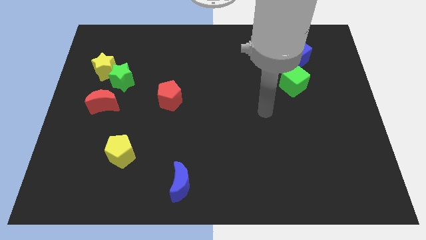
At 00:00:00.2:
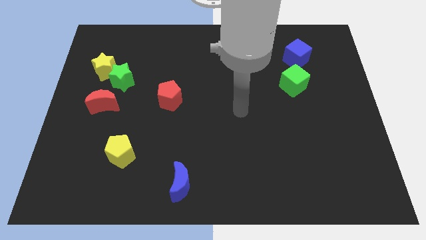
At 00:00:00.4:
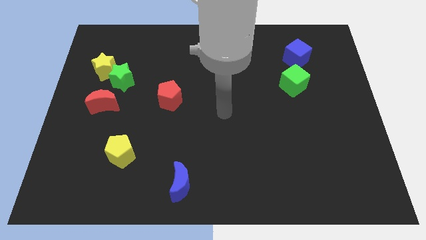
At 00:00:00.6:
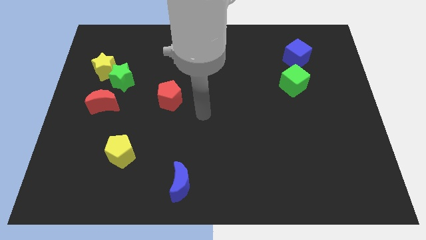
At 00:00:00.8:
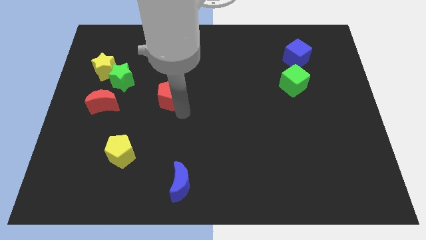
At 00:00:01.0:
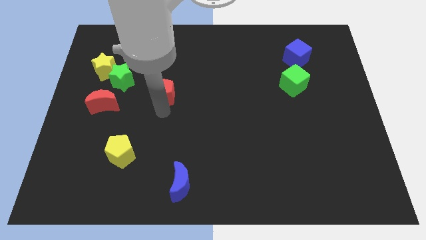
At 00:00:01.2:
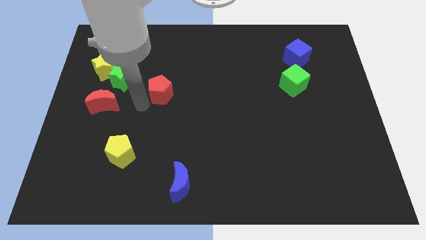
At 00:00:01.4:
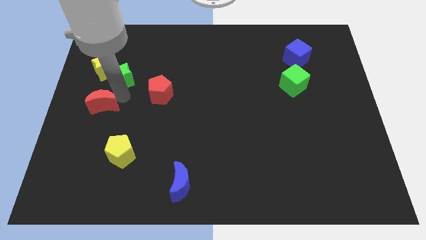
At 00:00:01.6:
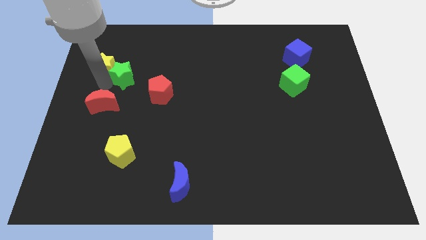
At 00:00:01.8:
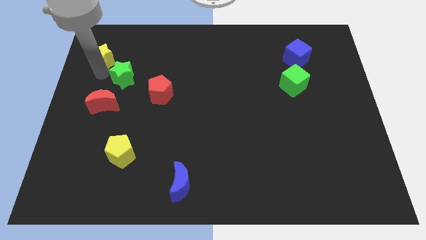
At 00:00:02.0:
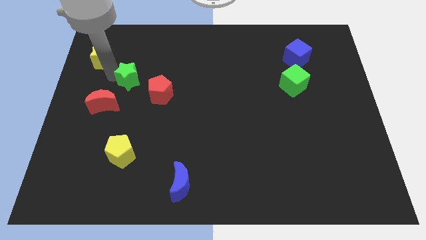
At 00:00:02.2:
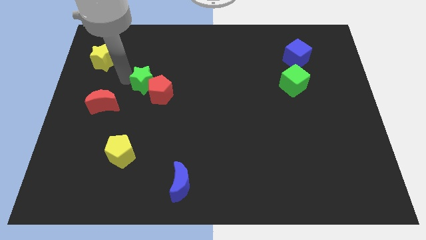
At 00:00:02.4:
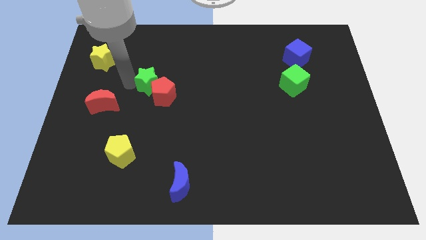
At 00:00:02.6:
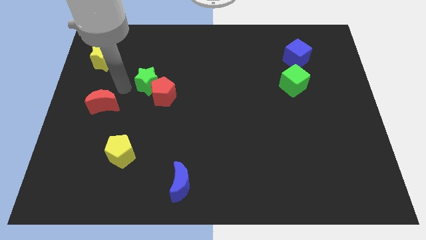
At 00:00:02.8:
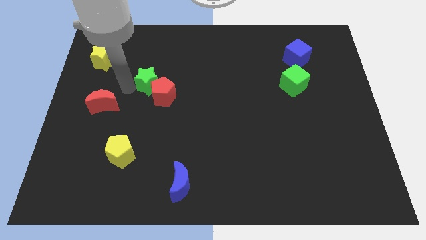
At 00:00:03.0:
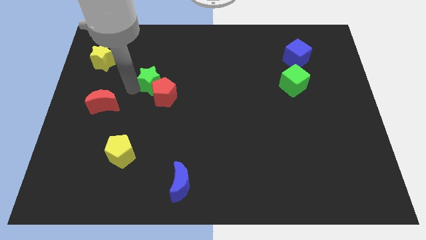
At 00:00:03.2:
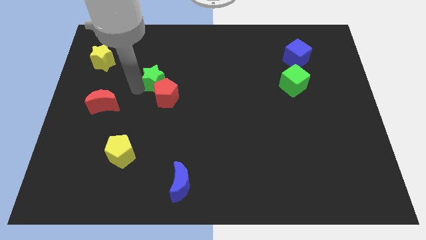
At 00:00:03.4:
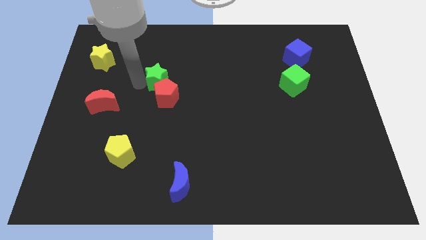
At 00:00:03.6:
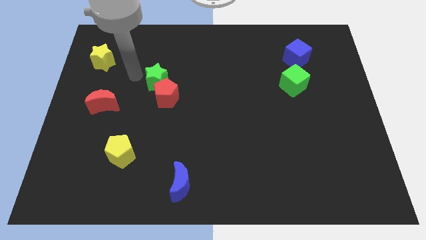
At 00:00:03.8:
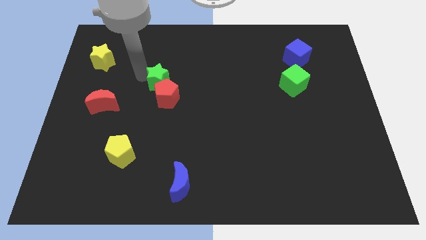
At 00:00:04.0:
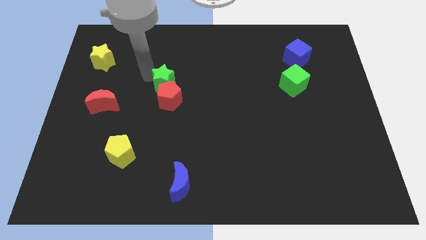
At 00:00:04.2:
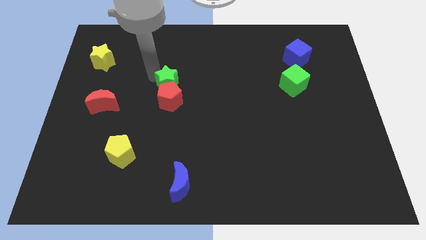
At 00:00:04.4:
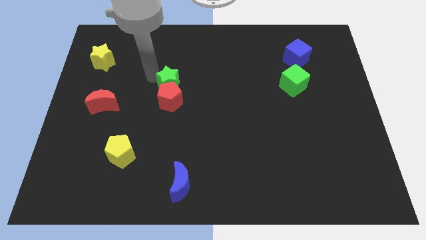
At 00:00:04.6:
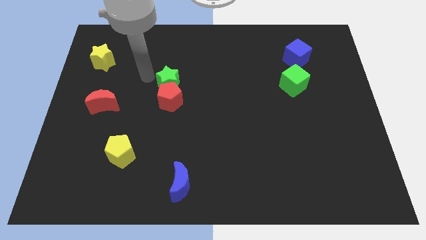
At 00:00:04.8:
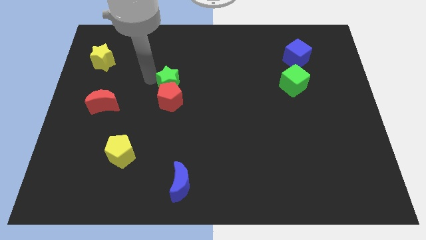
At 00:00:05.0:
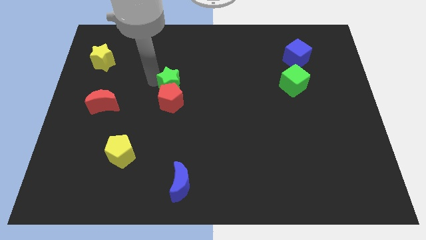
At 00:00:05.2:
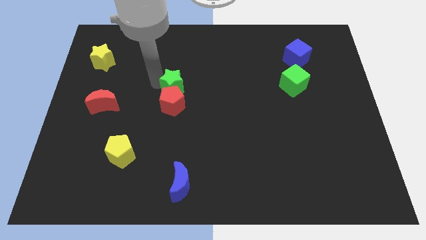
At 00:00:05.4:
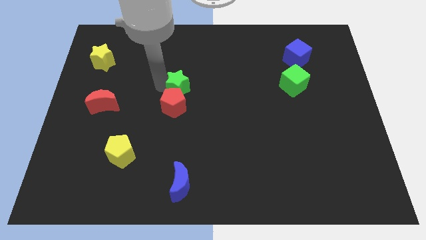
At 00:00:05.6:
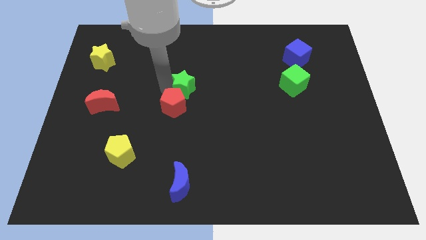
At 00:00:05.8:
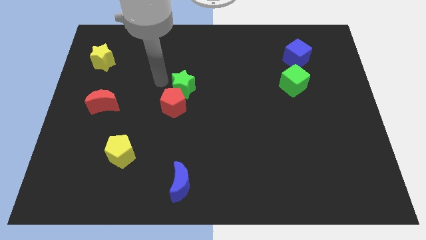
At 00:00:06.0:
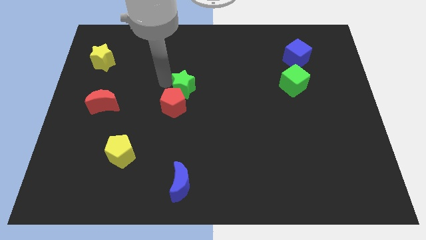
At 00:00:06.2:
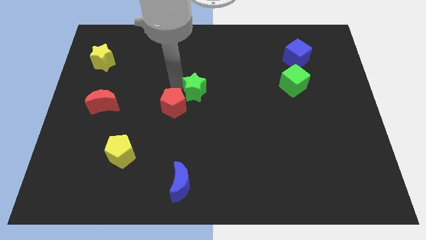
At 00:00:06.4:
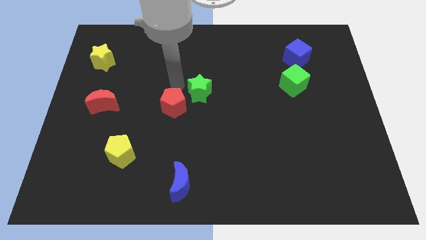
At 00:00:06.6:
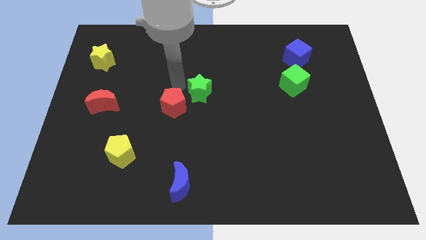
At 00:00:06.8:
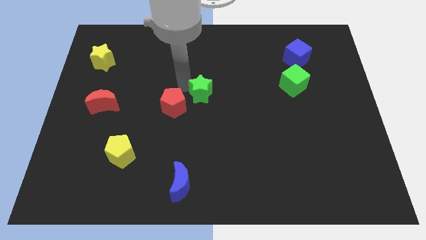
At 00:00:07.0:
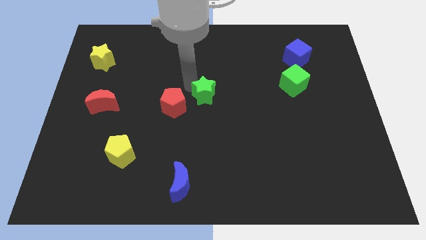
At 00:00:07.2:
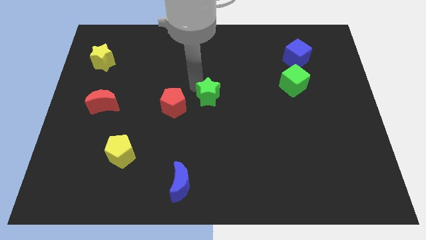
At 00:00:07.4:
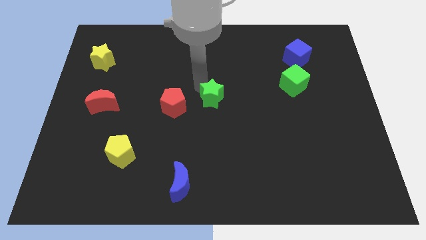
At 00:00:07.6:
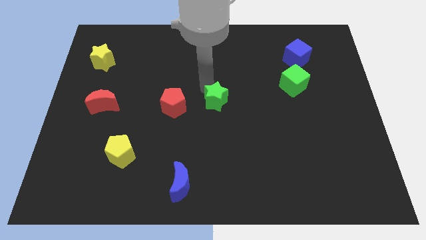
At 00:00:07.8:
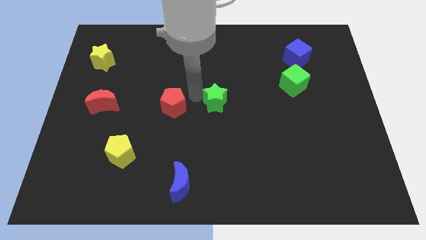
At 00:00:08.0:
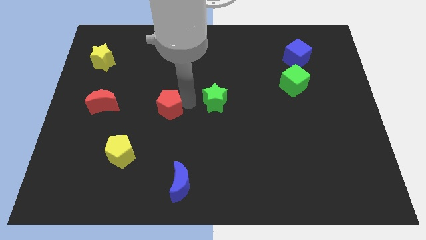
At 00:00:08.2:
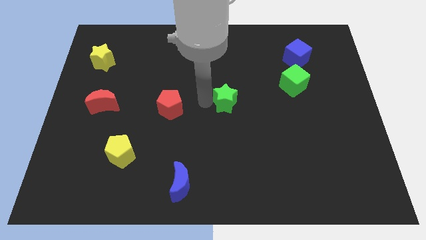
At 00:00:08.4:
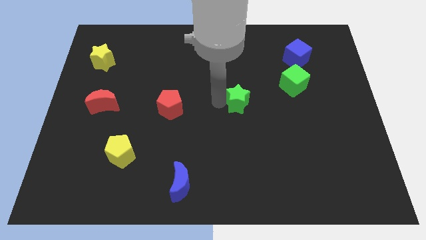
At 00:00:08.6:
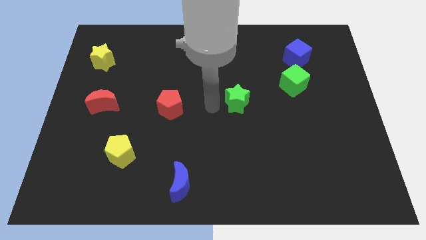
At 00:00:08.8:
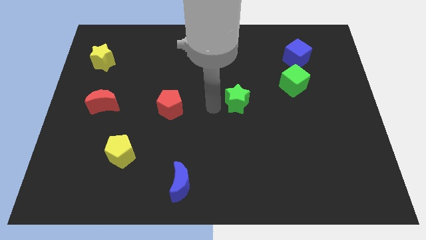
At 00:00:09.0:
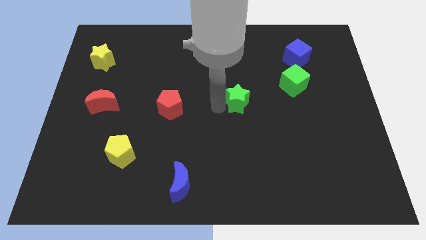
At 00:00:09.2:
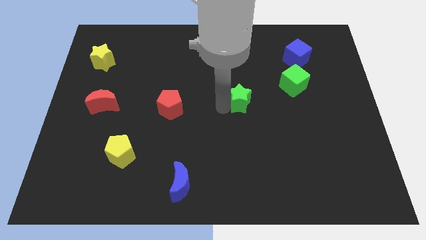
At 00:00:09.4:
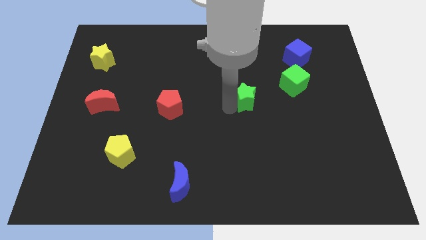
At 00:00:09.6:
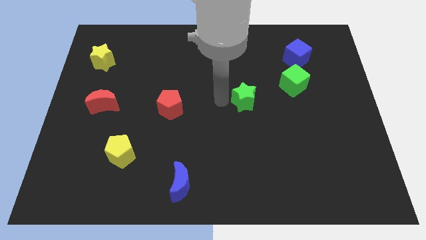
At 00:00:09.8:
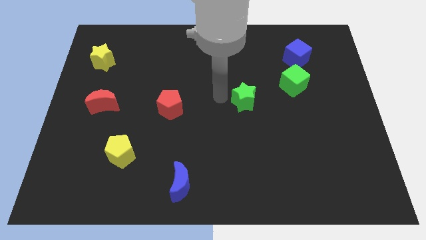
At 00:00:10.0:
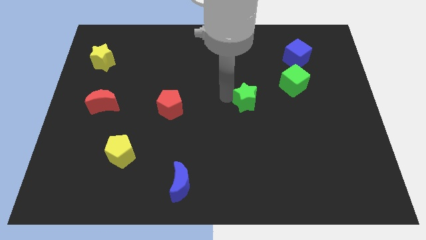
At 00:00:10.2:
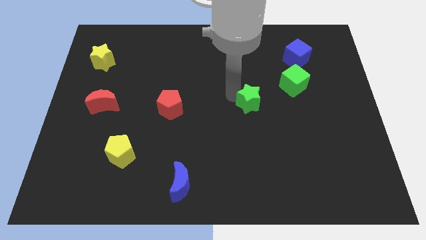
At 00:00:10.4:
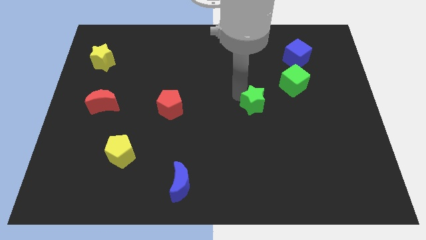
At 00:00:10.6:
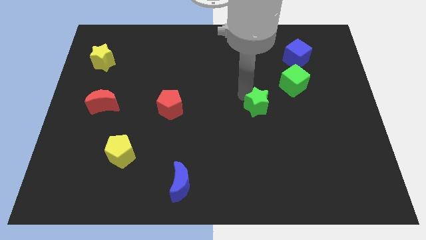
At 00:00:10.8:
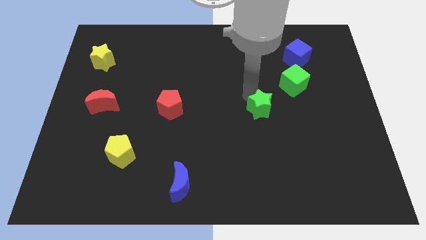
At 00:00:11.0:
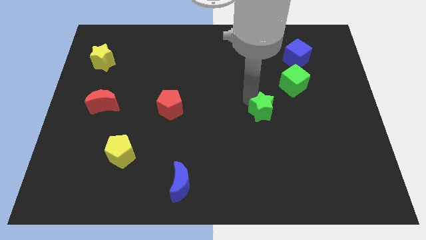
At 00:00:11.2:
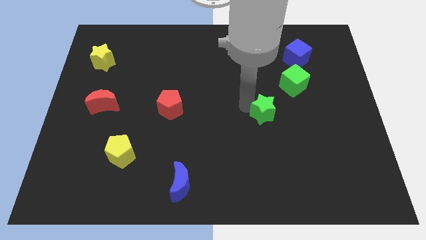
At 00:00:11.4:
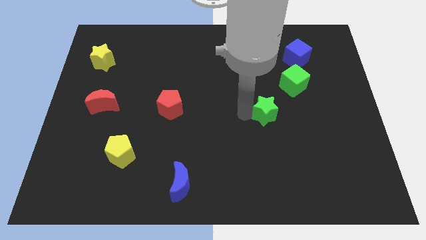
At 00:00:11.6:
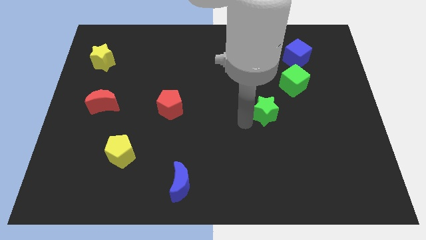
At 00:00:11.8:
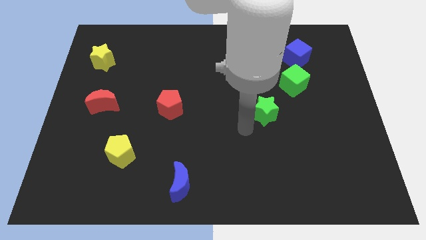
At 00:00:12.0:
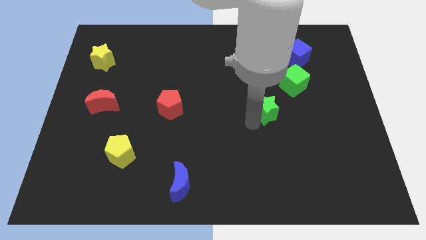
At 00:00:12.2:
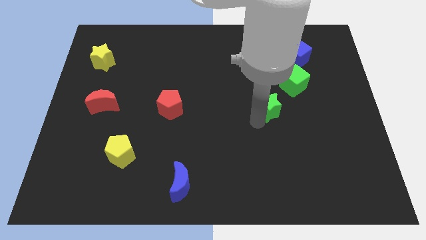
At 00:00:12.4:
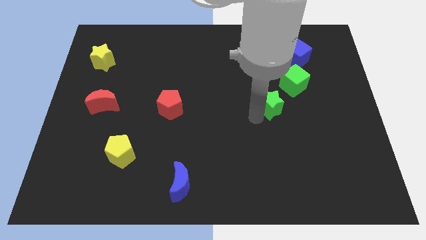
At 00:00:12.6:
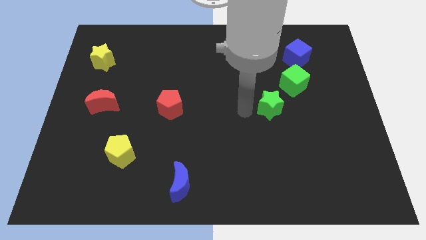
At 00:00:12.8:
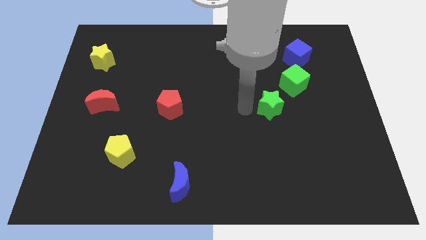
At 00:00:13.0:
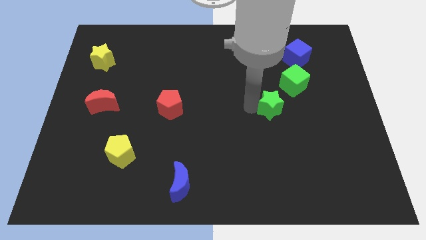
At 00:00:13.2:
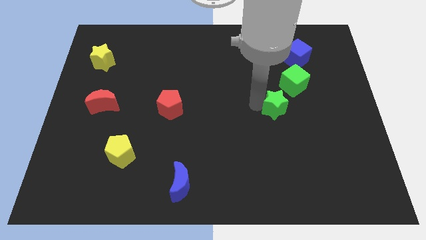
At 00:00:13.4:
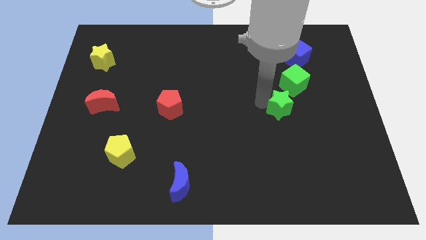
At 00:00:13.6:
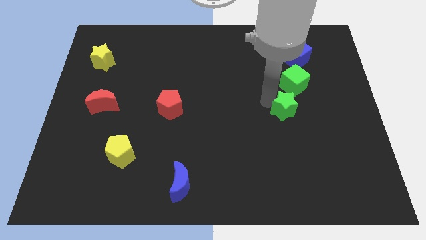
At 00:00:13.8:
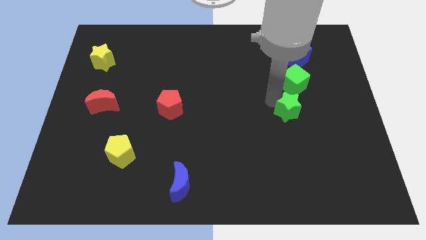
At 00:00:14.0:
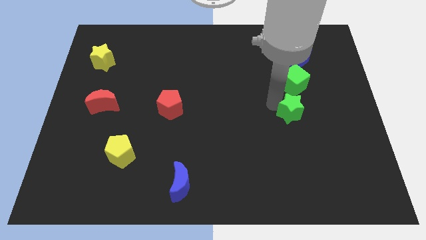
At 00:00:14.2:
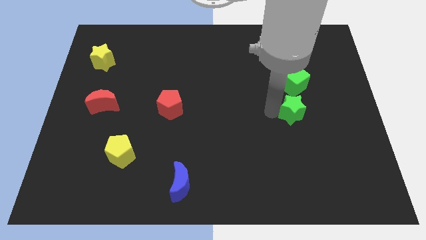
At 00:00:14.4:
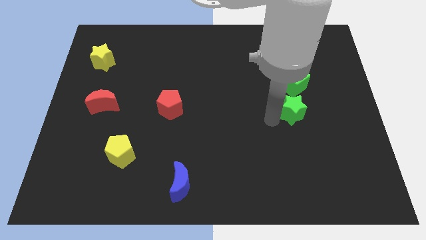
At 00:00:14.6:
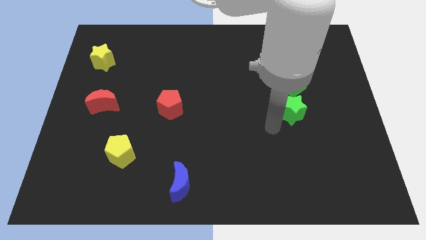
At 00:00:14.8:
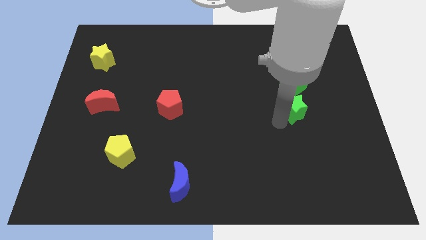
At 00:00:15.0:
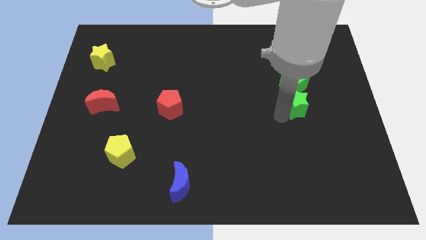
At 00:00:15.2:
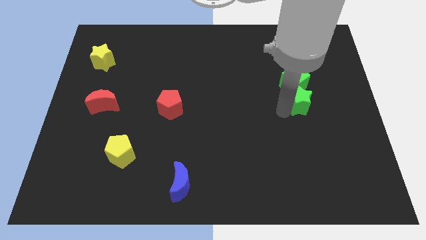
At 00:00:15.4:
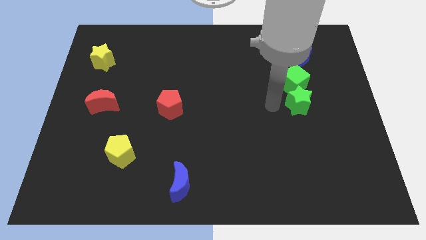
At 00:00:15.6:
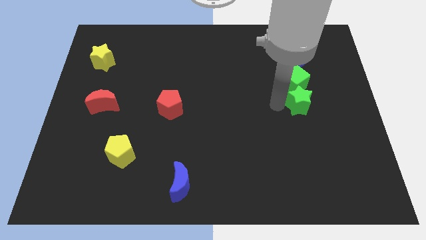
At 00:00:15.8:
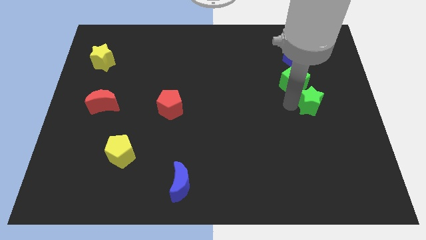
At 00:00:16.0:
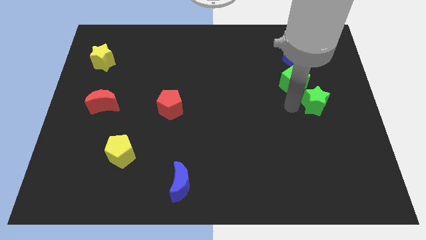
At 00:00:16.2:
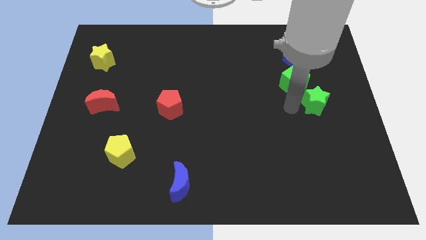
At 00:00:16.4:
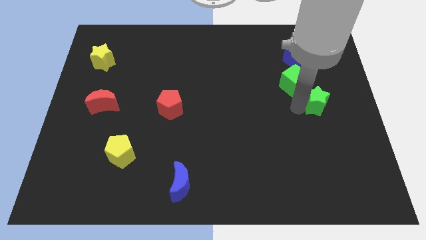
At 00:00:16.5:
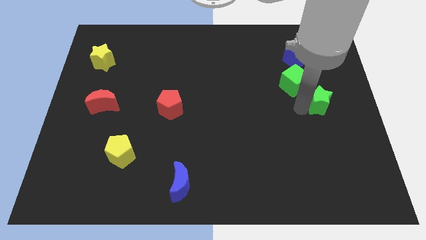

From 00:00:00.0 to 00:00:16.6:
slide the green star to the center right
